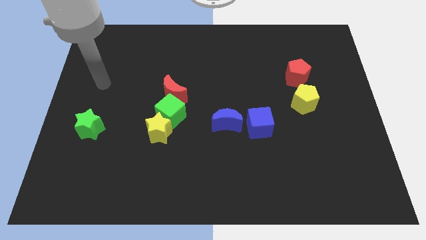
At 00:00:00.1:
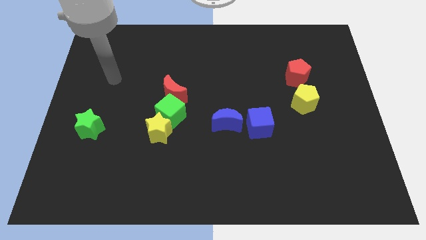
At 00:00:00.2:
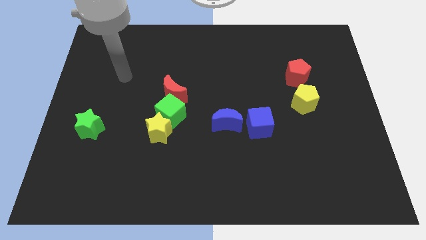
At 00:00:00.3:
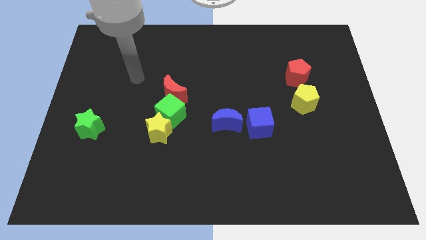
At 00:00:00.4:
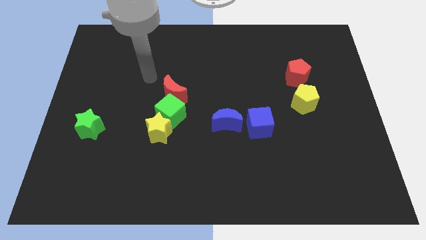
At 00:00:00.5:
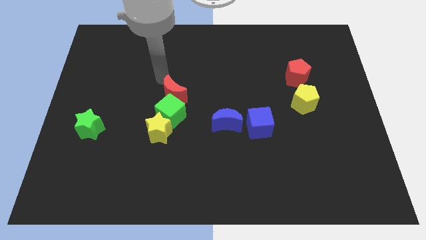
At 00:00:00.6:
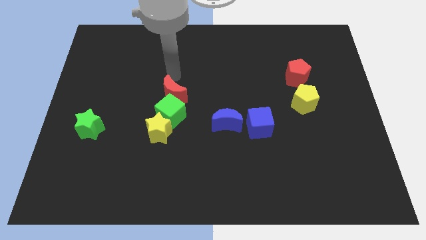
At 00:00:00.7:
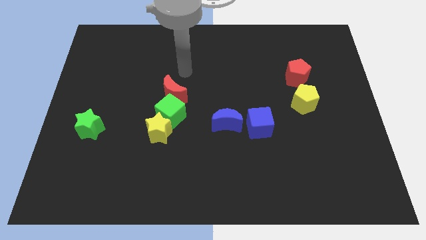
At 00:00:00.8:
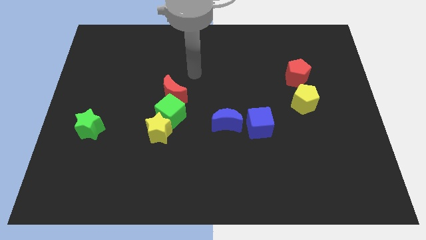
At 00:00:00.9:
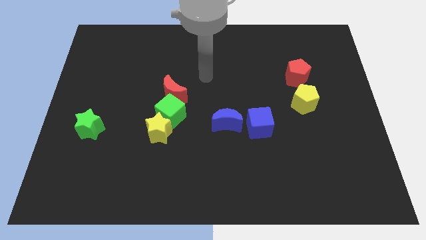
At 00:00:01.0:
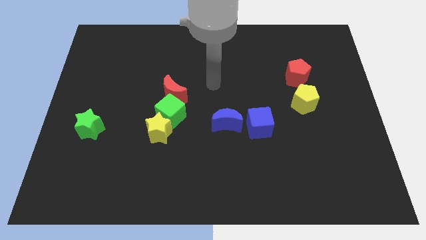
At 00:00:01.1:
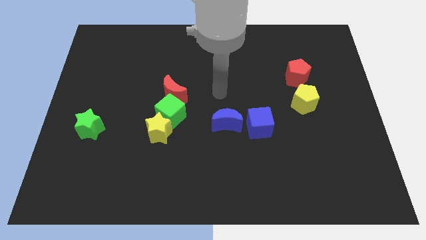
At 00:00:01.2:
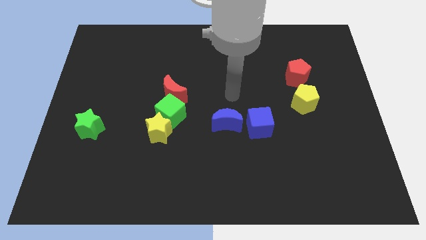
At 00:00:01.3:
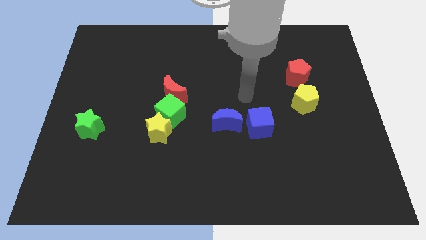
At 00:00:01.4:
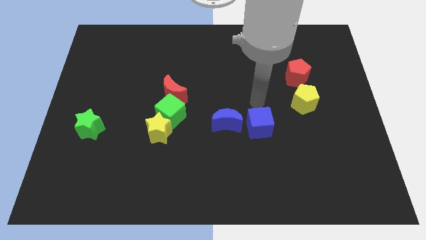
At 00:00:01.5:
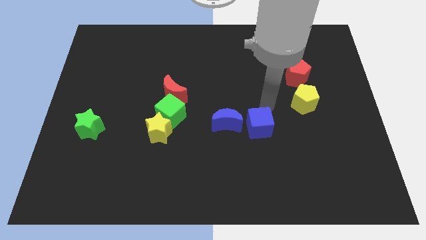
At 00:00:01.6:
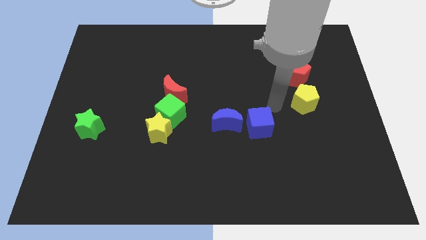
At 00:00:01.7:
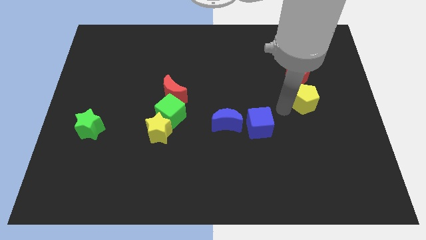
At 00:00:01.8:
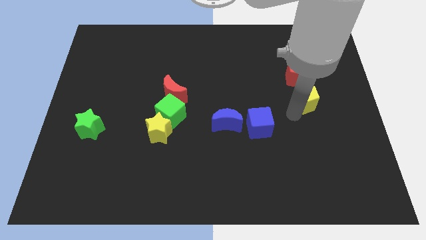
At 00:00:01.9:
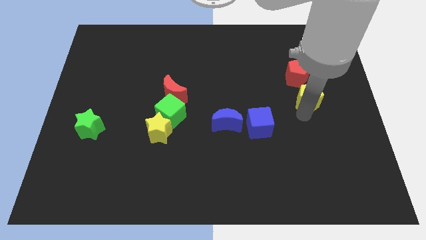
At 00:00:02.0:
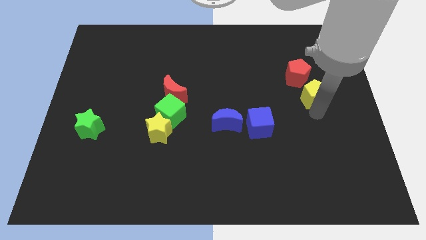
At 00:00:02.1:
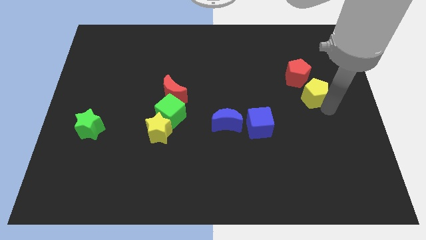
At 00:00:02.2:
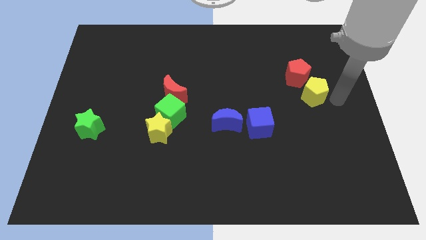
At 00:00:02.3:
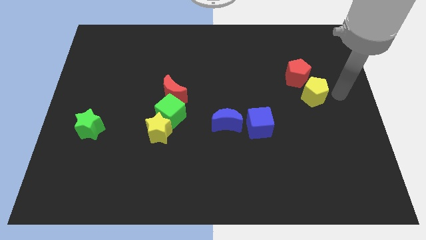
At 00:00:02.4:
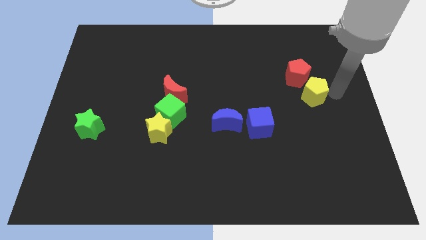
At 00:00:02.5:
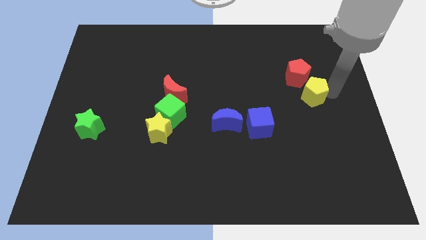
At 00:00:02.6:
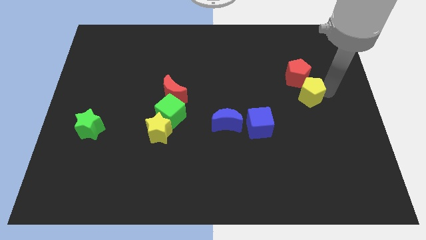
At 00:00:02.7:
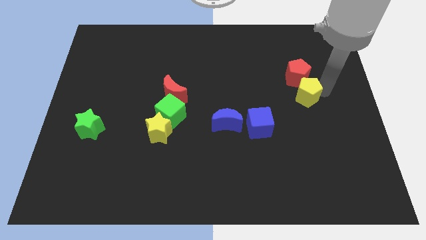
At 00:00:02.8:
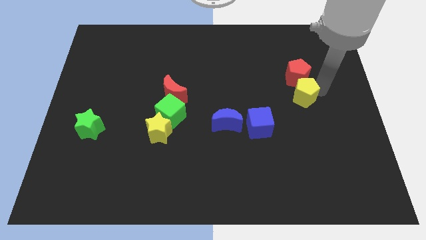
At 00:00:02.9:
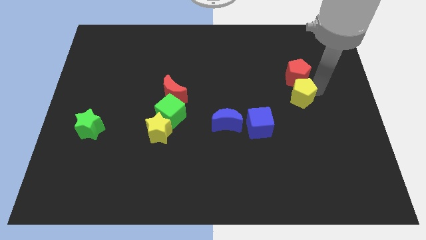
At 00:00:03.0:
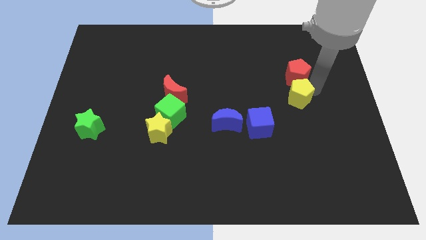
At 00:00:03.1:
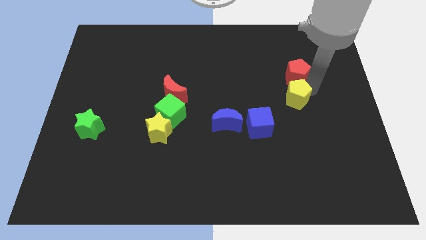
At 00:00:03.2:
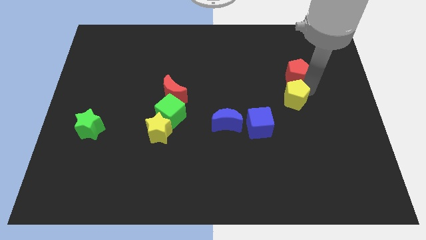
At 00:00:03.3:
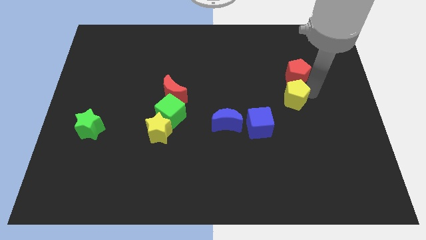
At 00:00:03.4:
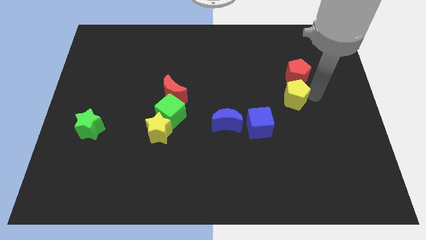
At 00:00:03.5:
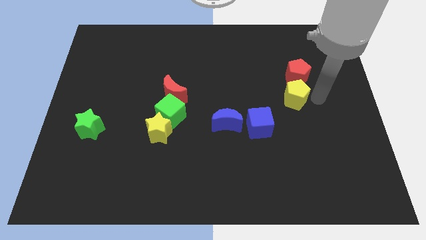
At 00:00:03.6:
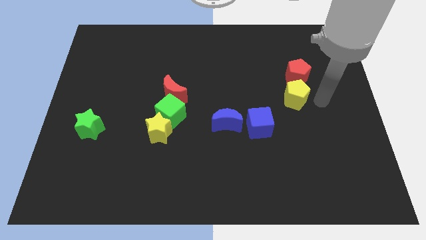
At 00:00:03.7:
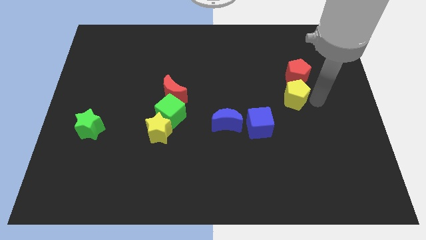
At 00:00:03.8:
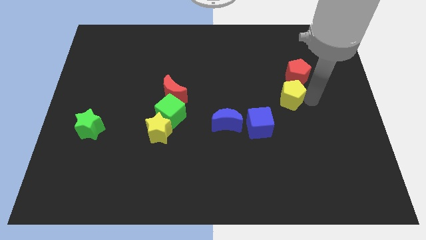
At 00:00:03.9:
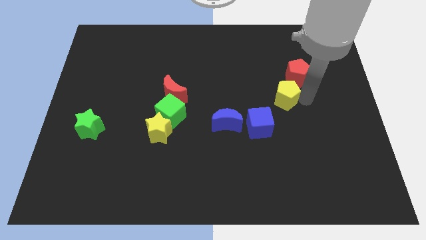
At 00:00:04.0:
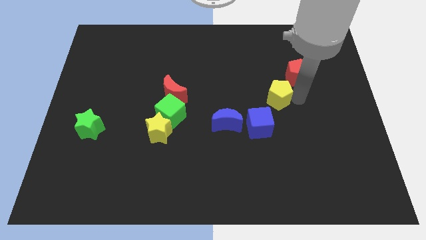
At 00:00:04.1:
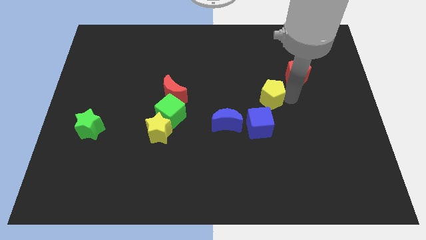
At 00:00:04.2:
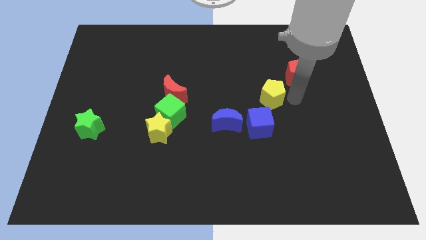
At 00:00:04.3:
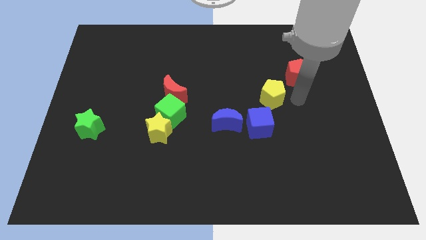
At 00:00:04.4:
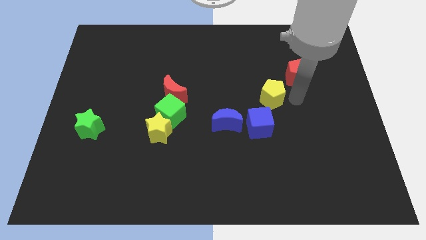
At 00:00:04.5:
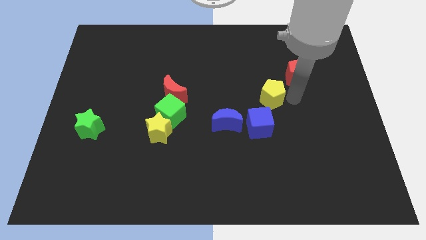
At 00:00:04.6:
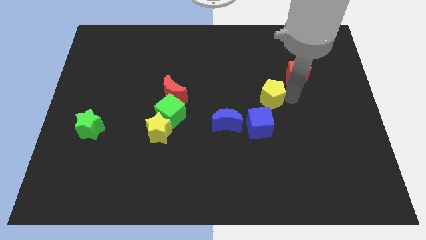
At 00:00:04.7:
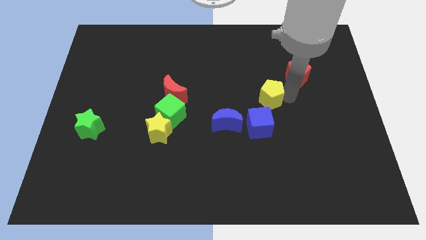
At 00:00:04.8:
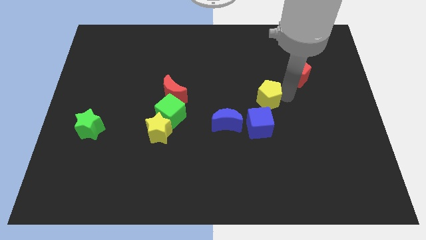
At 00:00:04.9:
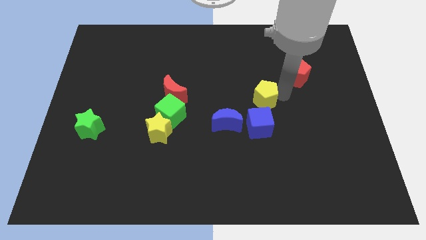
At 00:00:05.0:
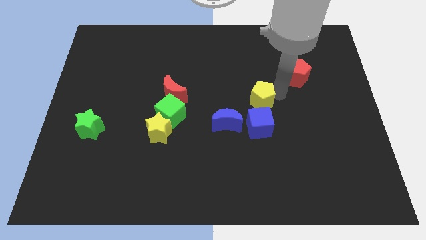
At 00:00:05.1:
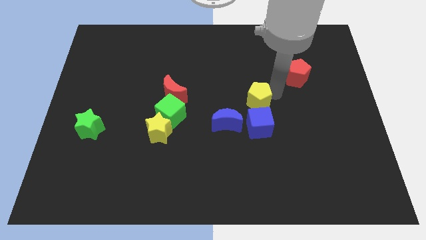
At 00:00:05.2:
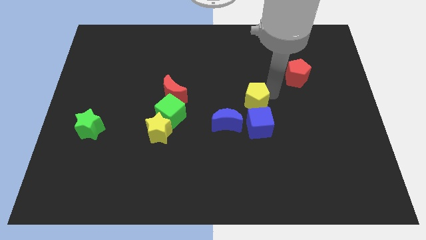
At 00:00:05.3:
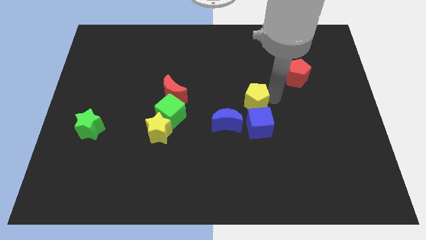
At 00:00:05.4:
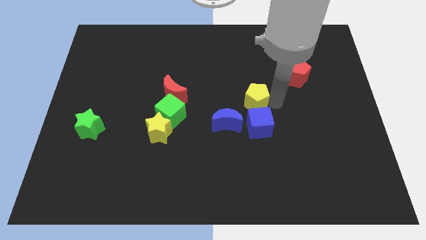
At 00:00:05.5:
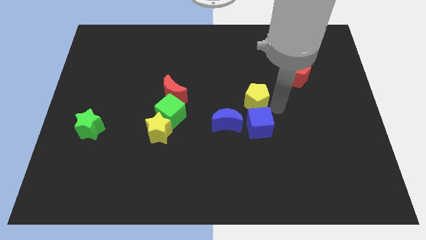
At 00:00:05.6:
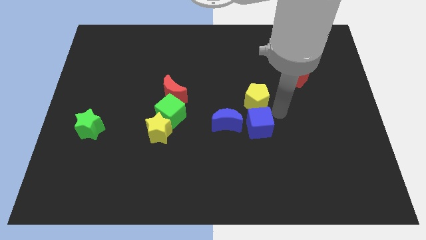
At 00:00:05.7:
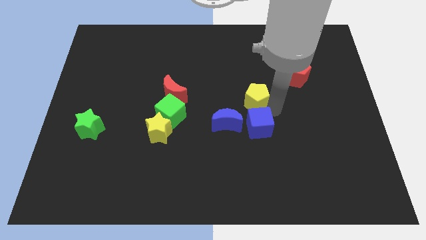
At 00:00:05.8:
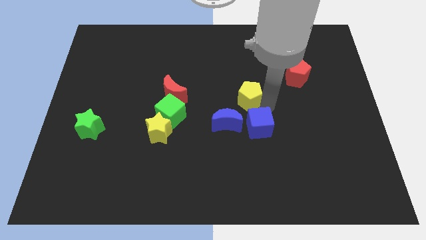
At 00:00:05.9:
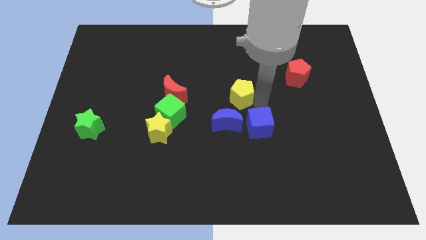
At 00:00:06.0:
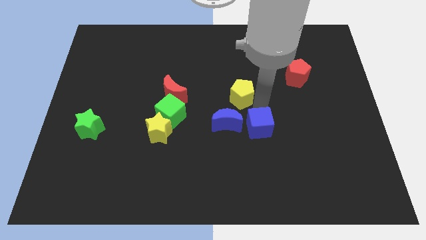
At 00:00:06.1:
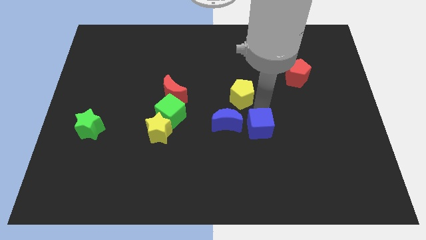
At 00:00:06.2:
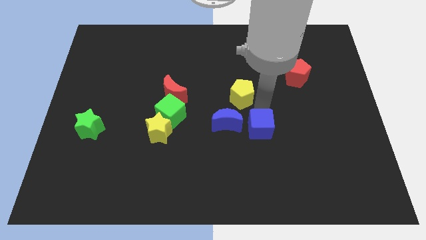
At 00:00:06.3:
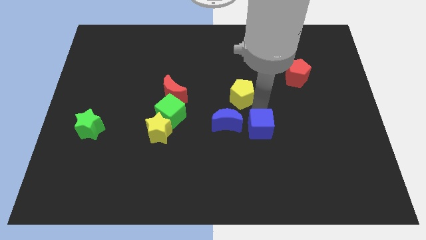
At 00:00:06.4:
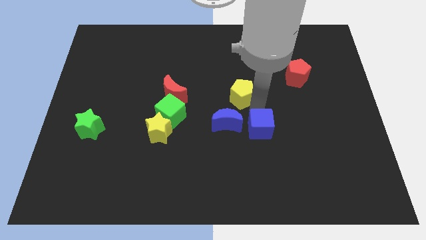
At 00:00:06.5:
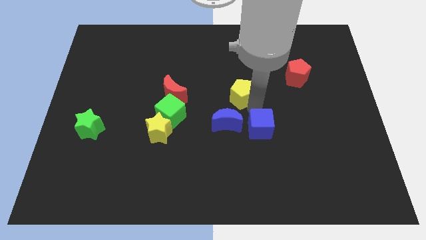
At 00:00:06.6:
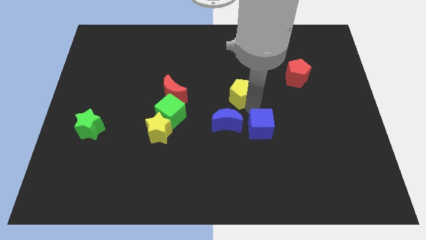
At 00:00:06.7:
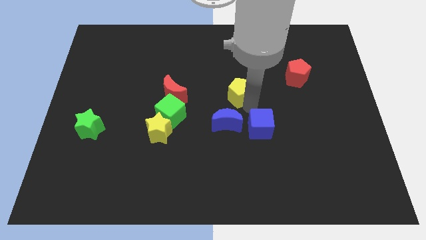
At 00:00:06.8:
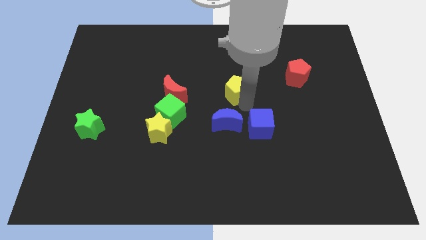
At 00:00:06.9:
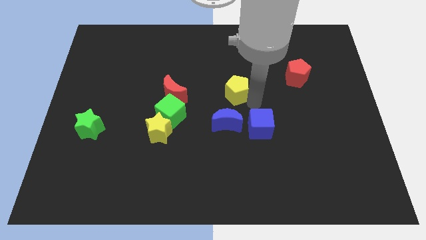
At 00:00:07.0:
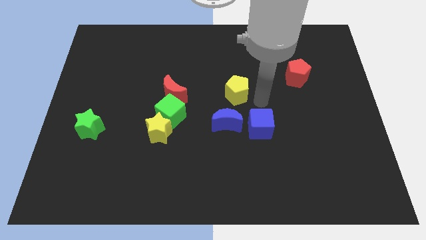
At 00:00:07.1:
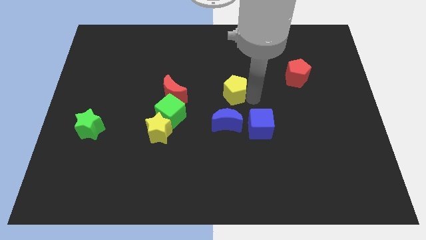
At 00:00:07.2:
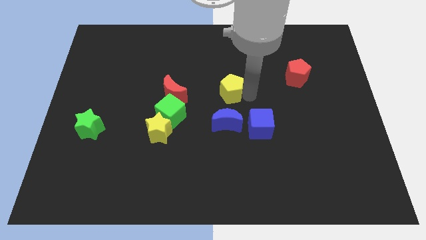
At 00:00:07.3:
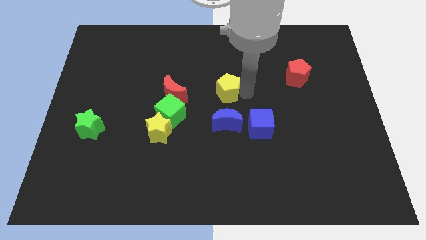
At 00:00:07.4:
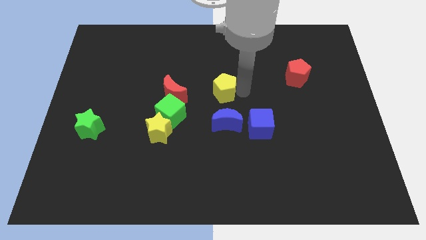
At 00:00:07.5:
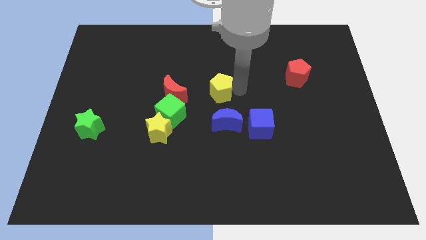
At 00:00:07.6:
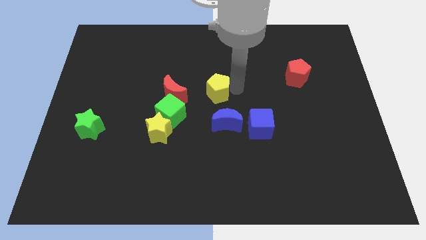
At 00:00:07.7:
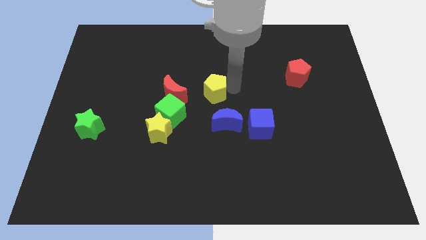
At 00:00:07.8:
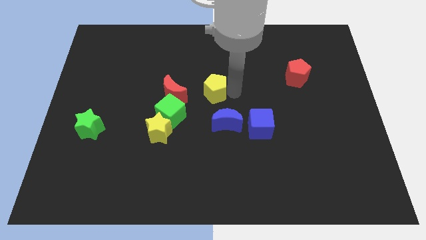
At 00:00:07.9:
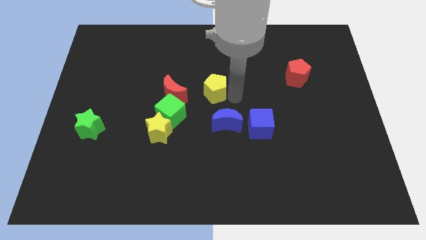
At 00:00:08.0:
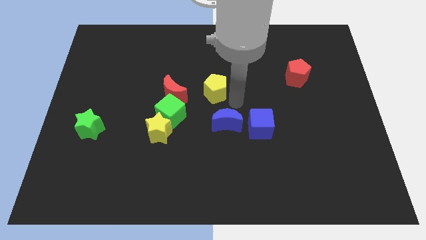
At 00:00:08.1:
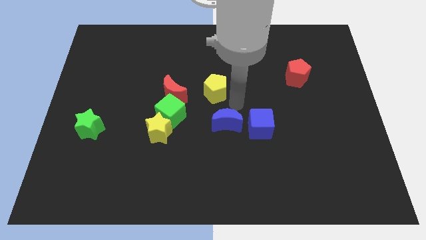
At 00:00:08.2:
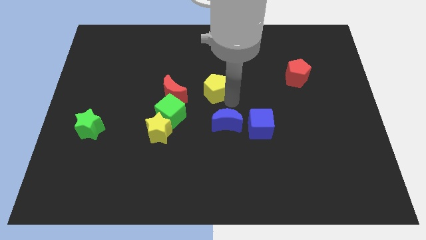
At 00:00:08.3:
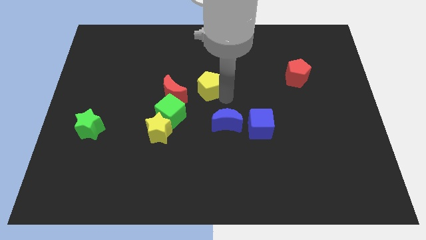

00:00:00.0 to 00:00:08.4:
put the yellow pentagon to the top right side of the red moon
